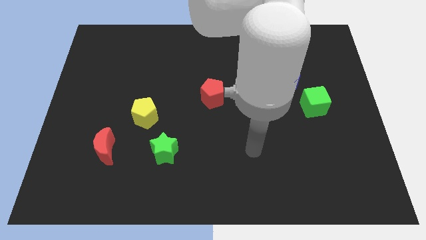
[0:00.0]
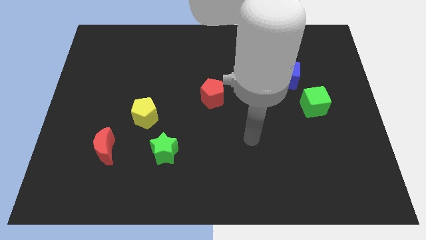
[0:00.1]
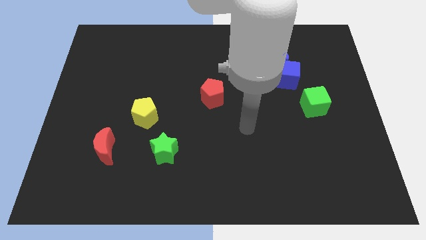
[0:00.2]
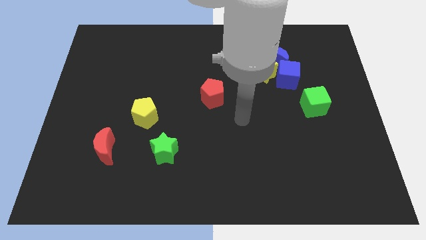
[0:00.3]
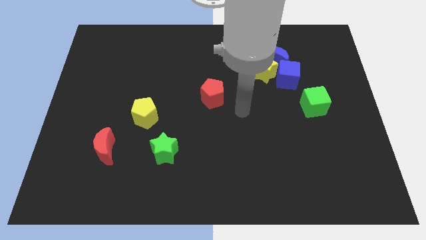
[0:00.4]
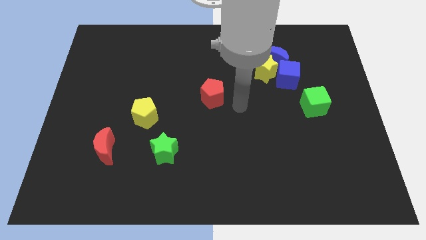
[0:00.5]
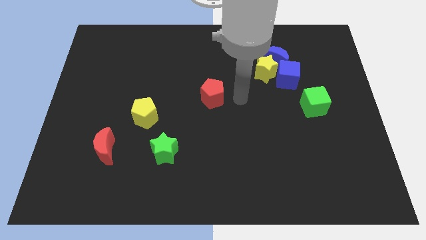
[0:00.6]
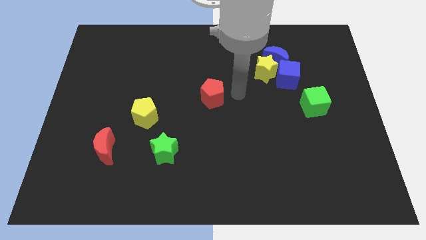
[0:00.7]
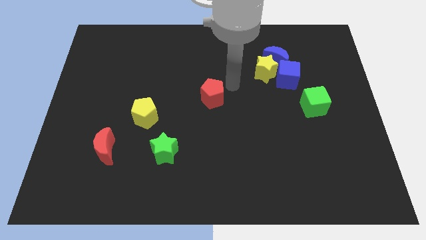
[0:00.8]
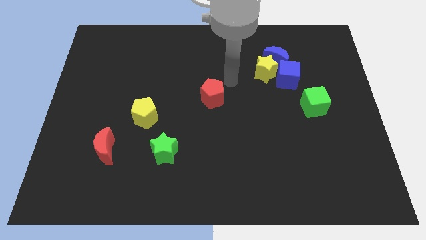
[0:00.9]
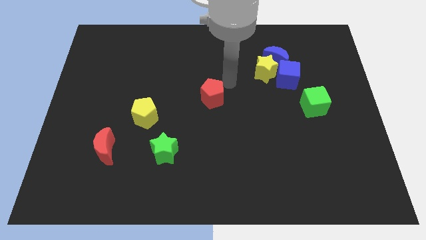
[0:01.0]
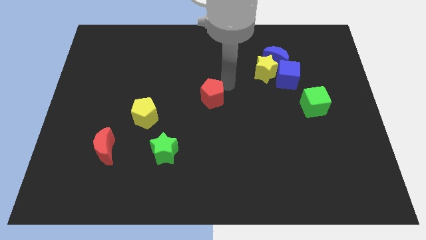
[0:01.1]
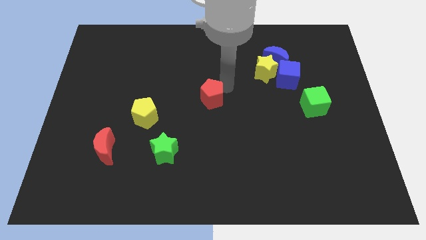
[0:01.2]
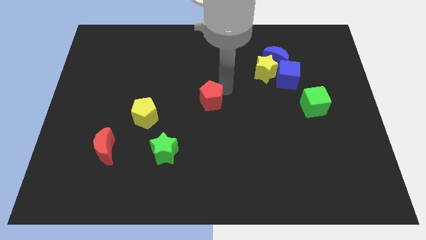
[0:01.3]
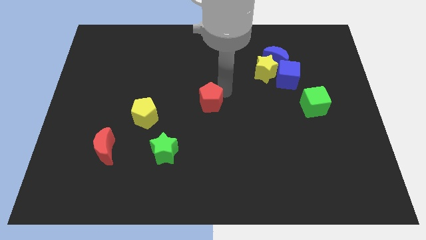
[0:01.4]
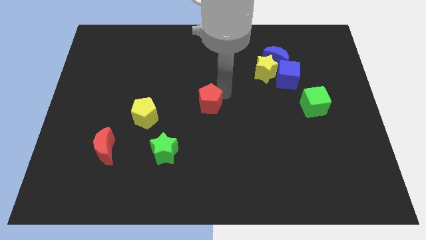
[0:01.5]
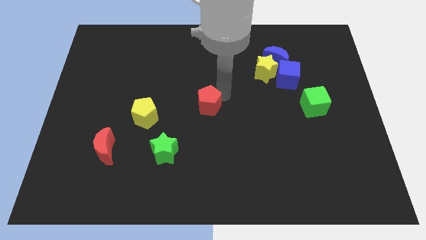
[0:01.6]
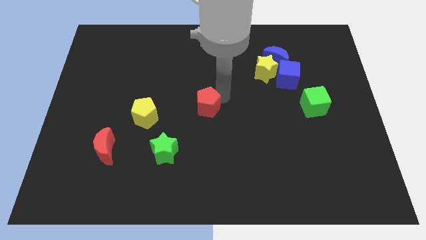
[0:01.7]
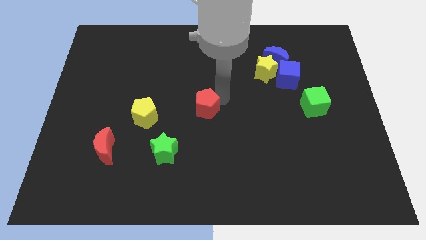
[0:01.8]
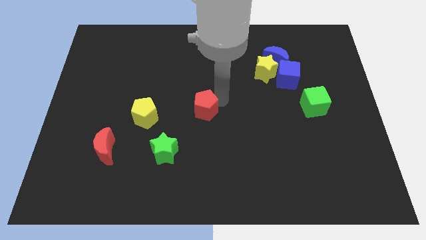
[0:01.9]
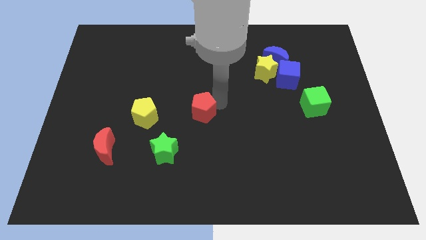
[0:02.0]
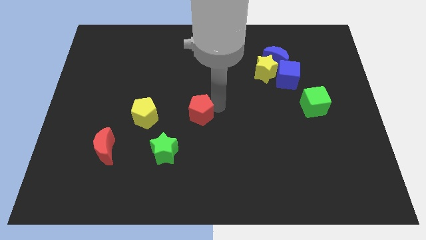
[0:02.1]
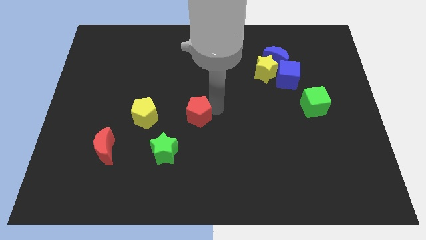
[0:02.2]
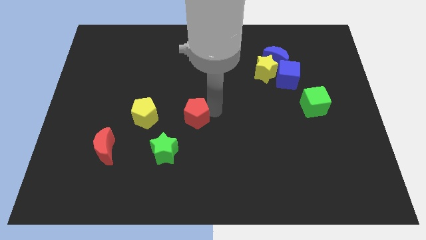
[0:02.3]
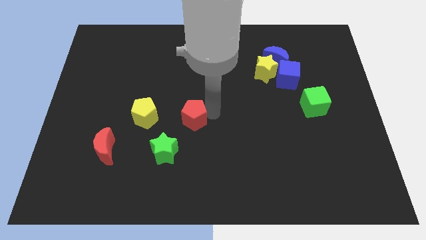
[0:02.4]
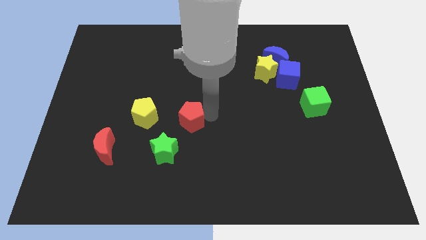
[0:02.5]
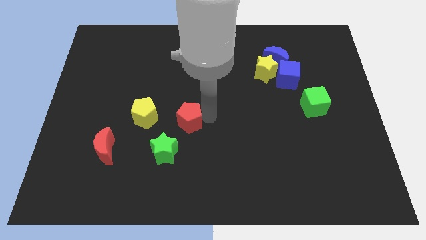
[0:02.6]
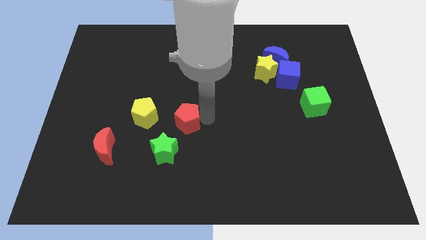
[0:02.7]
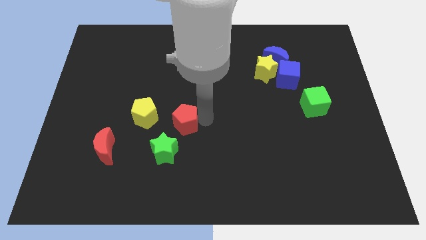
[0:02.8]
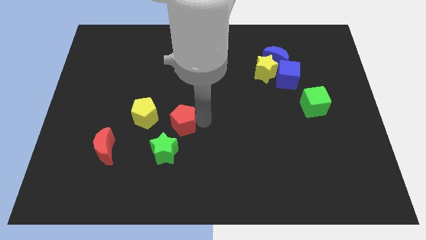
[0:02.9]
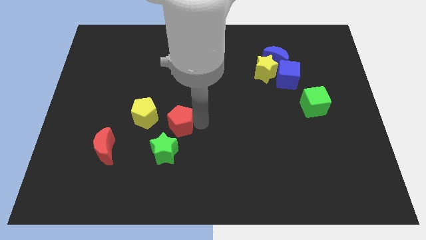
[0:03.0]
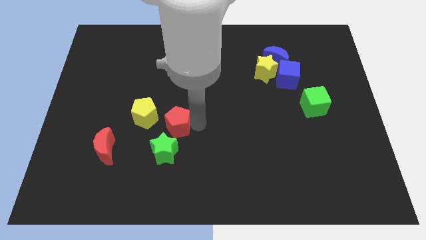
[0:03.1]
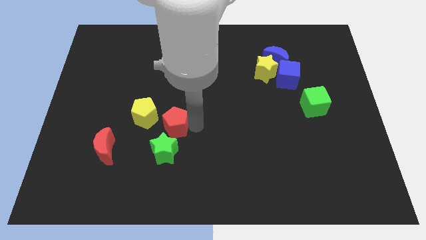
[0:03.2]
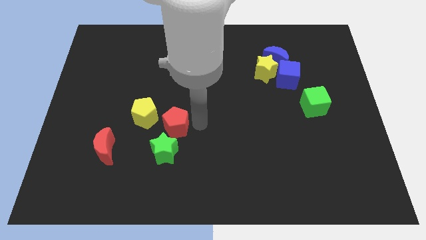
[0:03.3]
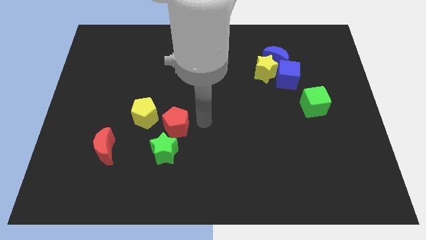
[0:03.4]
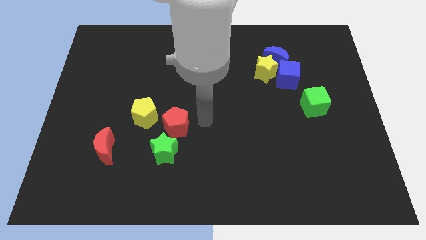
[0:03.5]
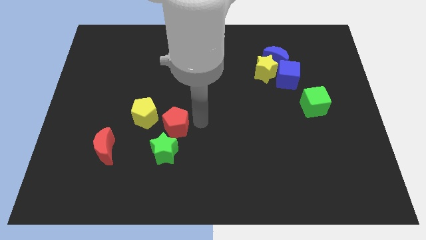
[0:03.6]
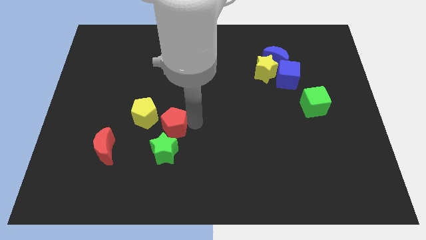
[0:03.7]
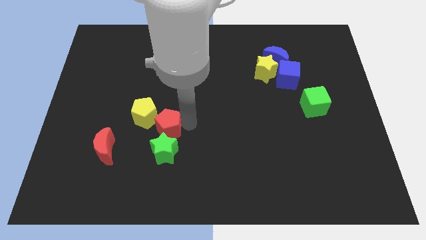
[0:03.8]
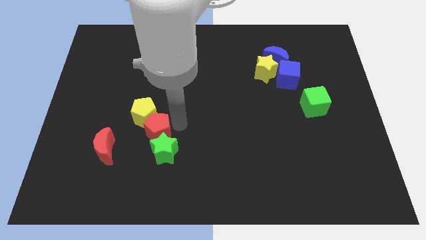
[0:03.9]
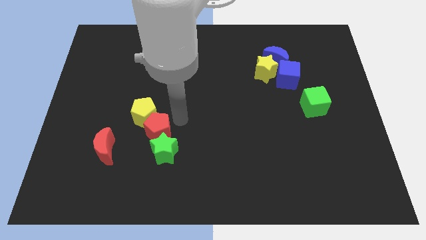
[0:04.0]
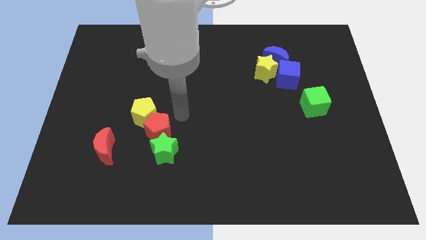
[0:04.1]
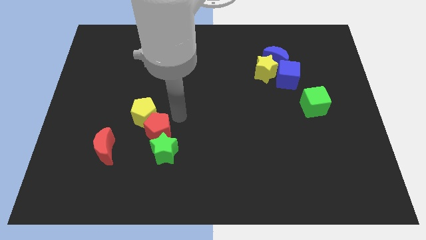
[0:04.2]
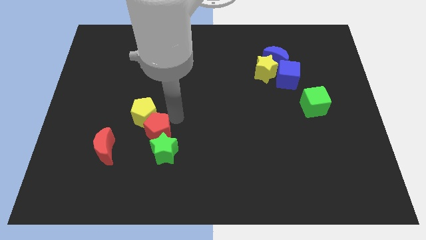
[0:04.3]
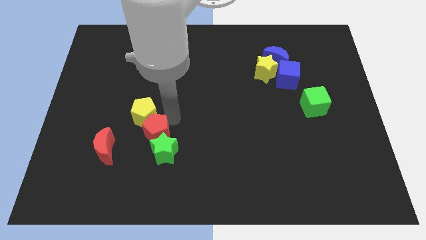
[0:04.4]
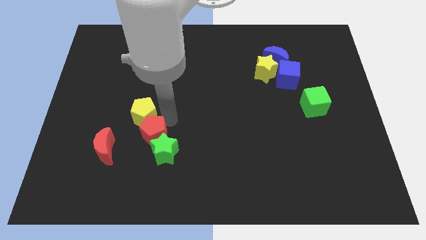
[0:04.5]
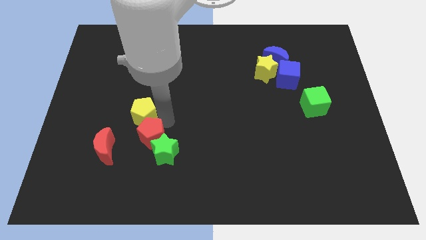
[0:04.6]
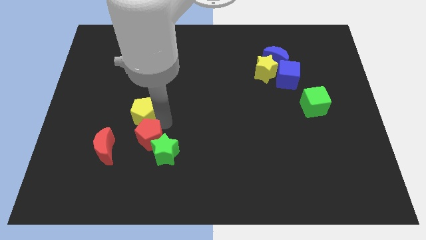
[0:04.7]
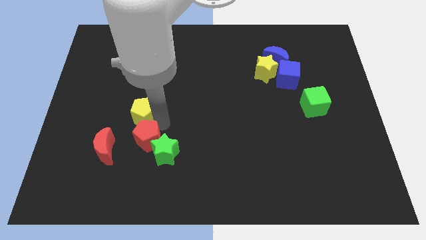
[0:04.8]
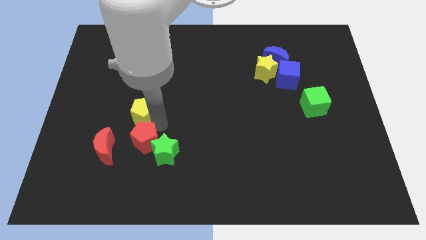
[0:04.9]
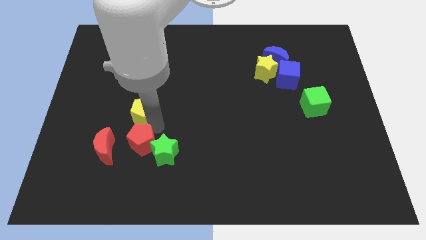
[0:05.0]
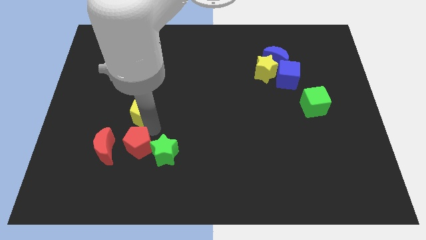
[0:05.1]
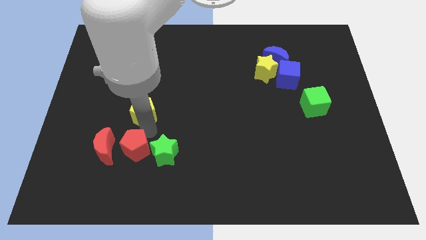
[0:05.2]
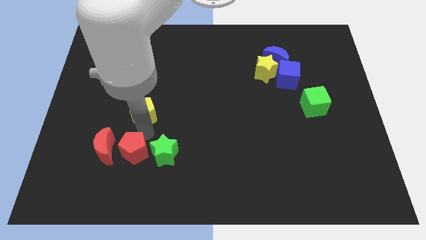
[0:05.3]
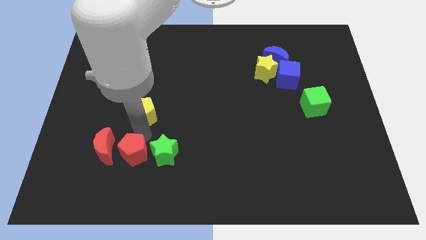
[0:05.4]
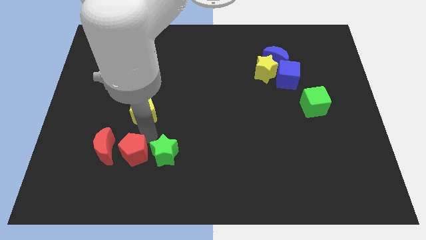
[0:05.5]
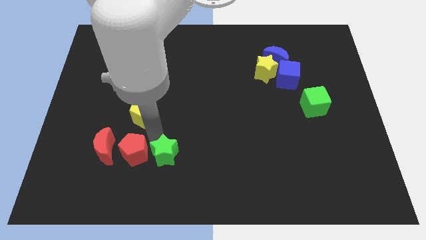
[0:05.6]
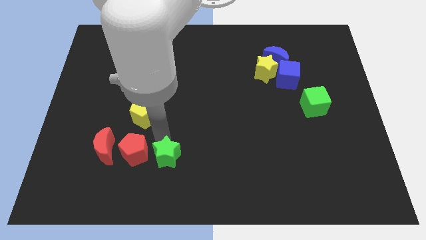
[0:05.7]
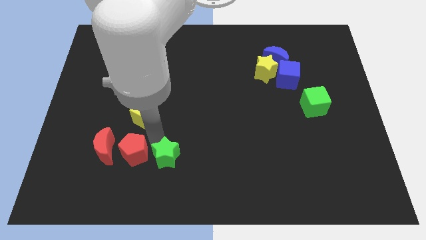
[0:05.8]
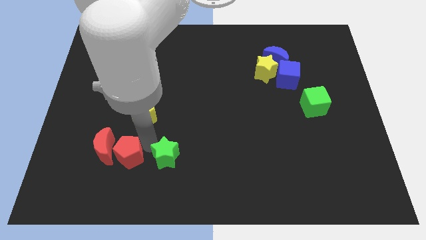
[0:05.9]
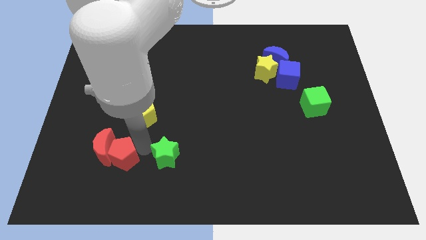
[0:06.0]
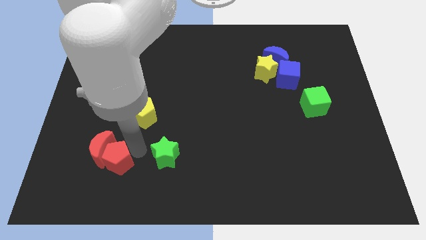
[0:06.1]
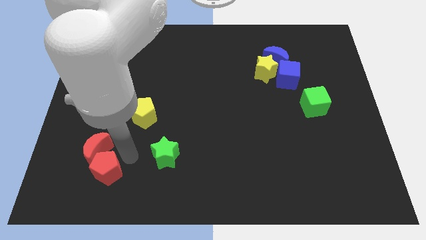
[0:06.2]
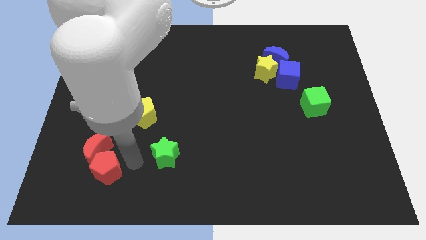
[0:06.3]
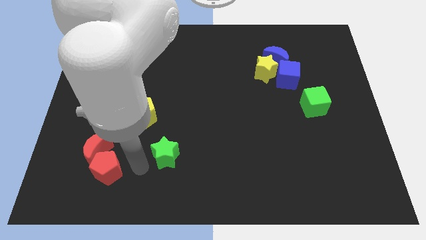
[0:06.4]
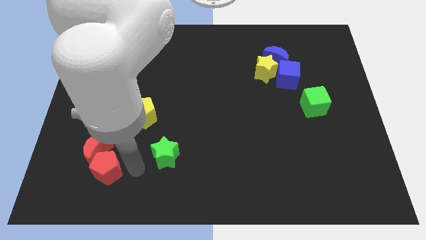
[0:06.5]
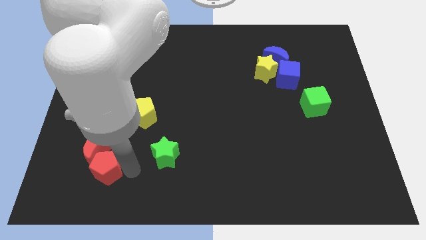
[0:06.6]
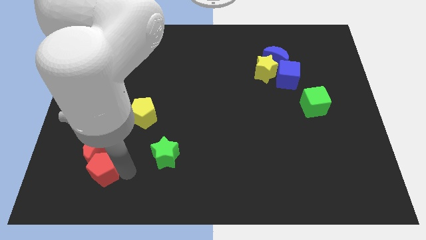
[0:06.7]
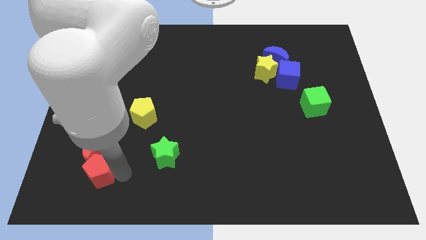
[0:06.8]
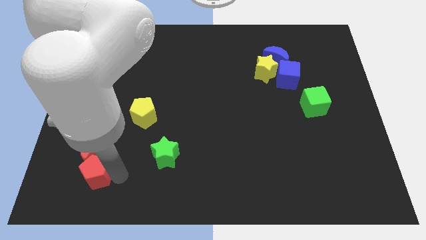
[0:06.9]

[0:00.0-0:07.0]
slide the red pentagon diagonally down and to the left of the red moon
